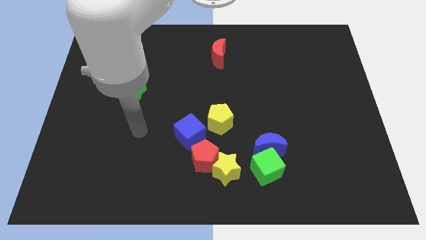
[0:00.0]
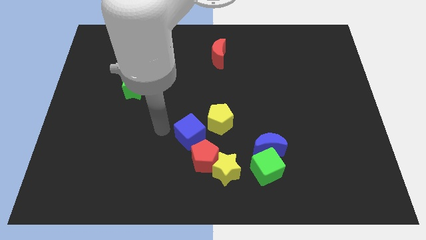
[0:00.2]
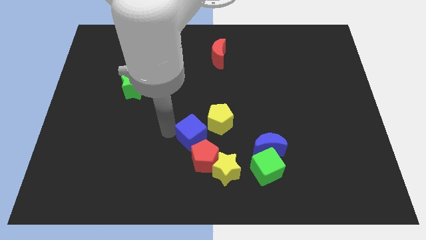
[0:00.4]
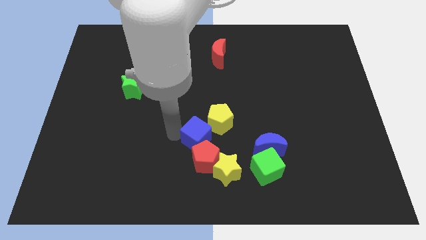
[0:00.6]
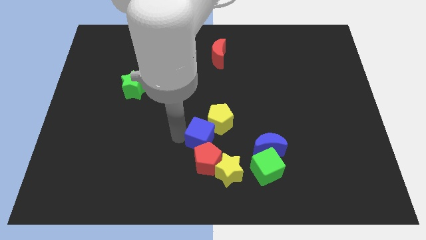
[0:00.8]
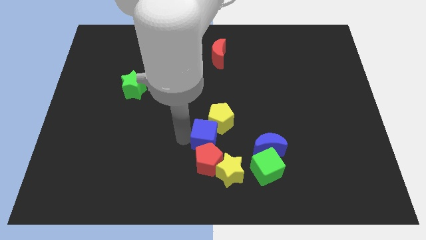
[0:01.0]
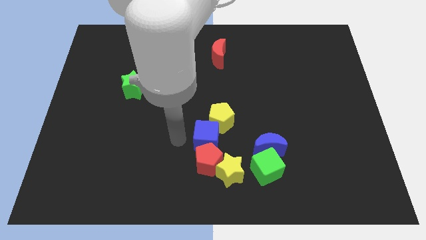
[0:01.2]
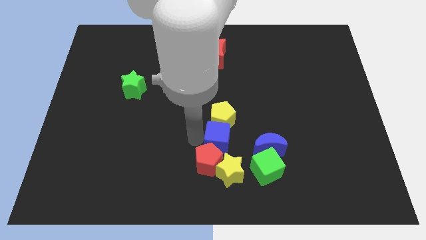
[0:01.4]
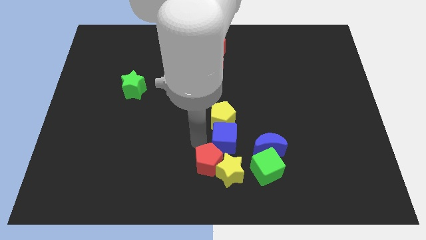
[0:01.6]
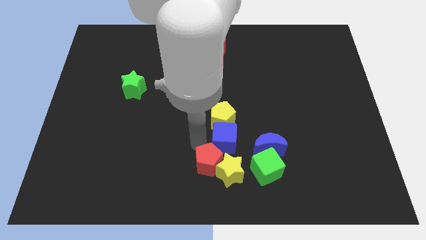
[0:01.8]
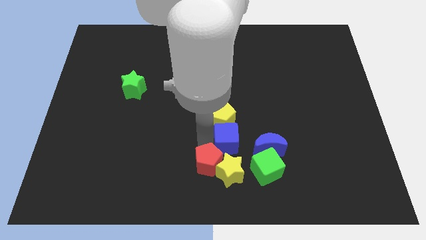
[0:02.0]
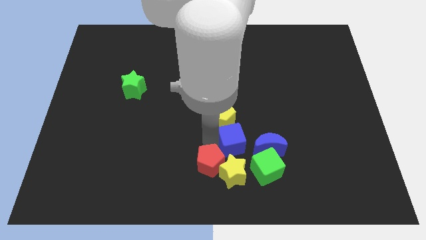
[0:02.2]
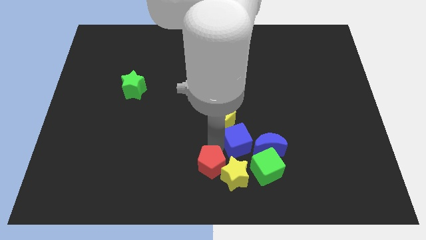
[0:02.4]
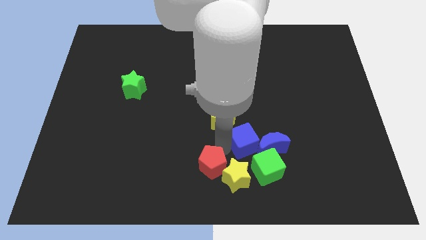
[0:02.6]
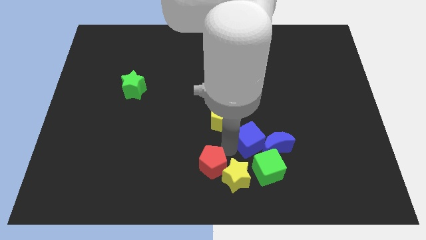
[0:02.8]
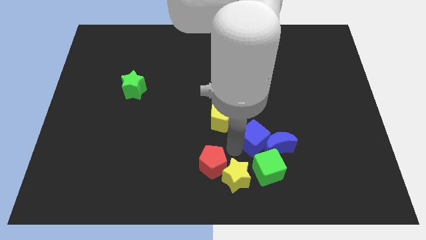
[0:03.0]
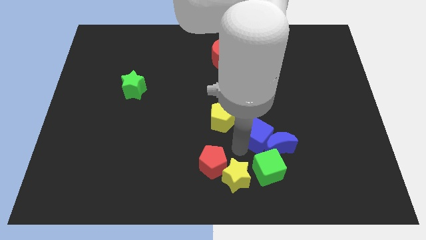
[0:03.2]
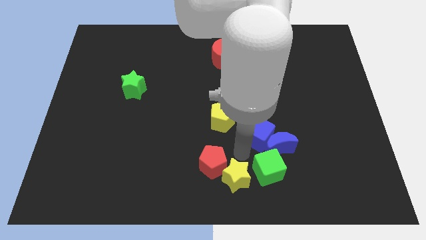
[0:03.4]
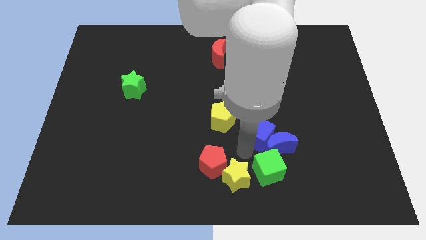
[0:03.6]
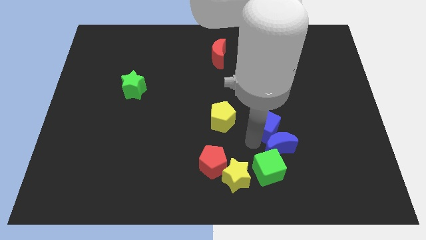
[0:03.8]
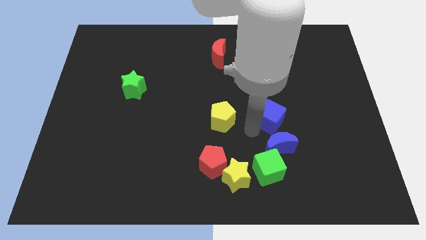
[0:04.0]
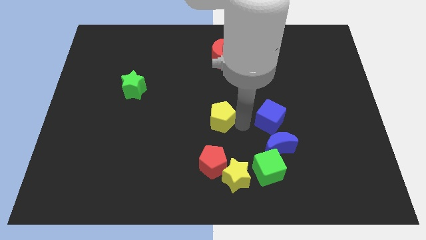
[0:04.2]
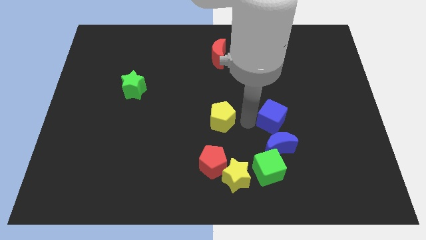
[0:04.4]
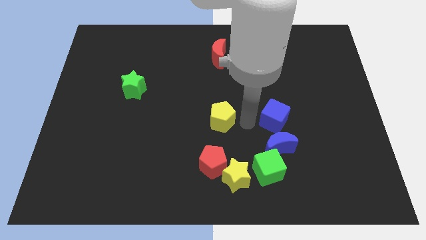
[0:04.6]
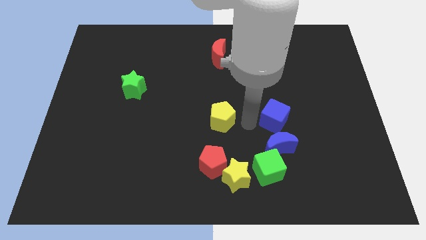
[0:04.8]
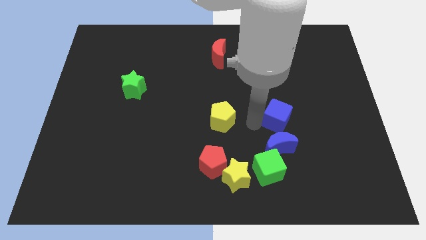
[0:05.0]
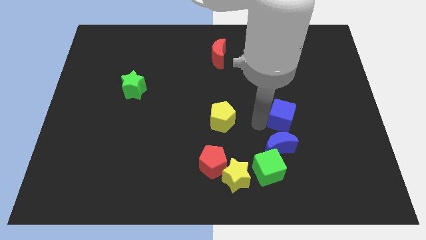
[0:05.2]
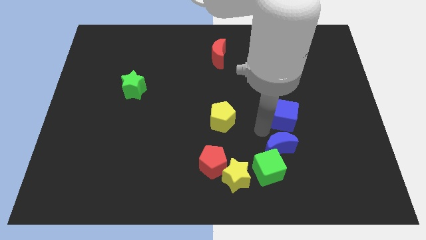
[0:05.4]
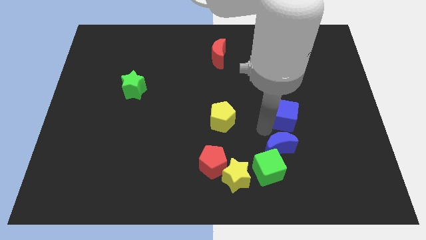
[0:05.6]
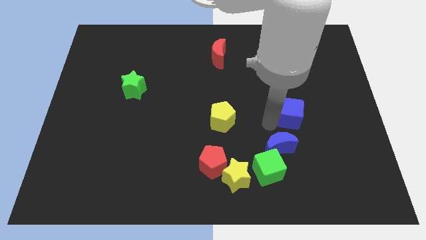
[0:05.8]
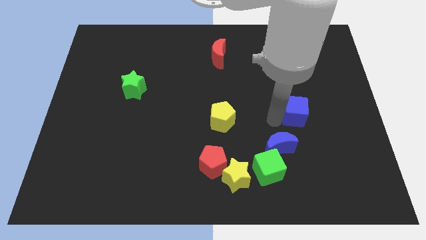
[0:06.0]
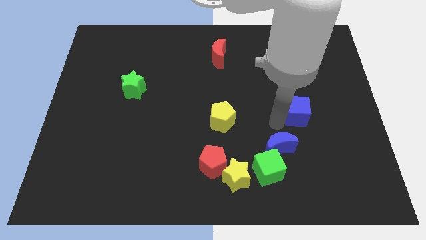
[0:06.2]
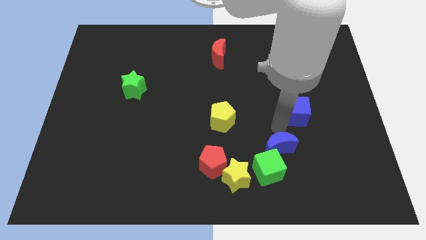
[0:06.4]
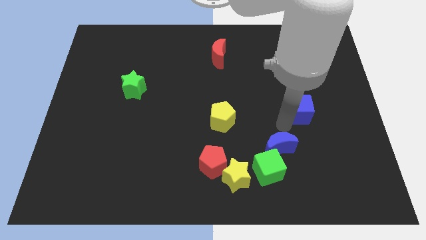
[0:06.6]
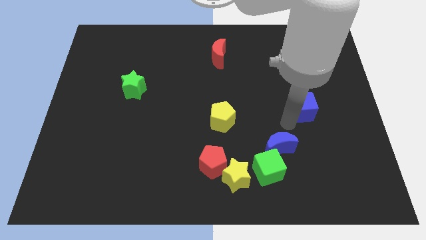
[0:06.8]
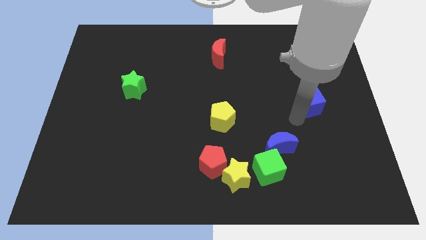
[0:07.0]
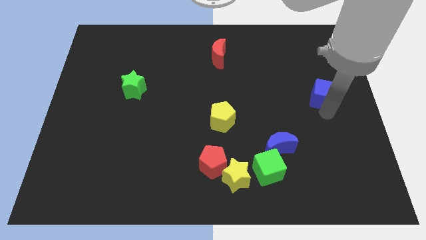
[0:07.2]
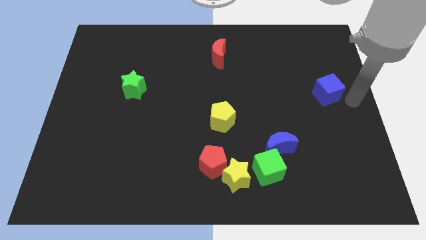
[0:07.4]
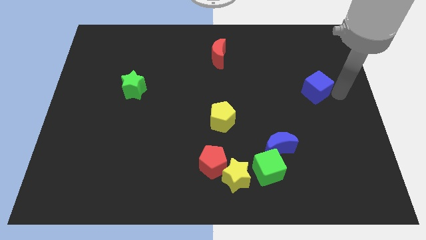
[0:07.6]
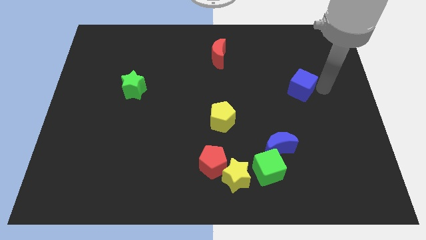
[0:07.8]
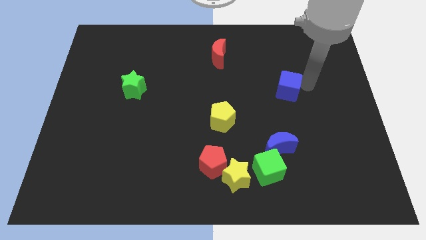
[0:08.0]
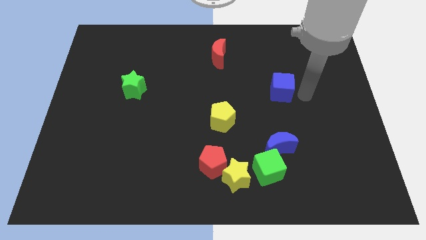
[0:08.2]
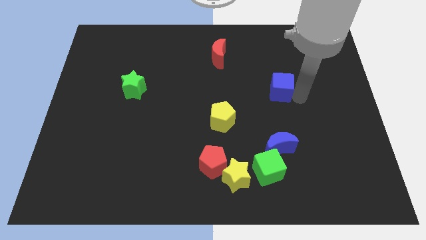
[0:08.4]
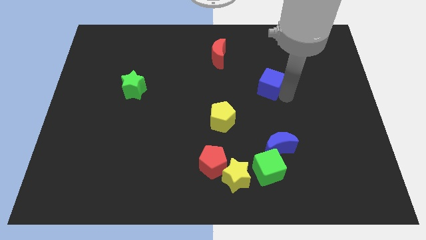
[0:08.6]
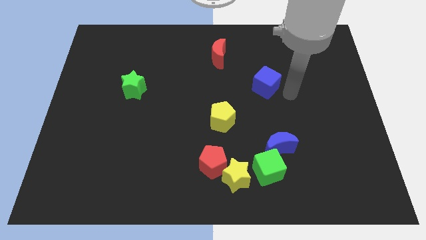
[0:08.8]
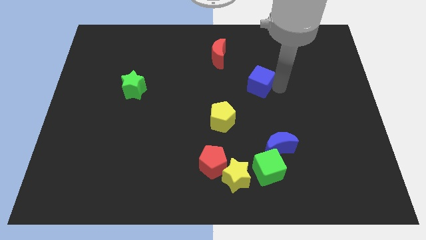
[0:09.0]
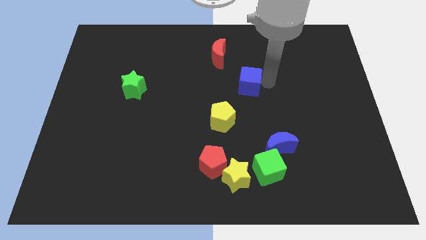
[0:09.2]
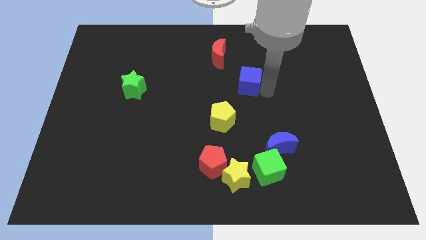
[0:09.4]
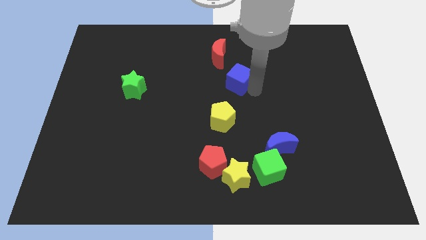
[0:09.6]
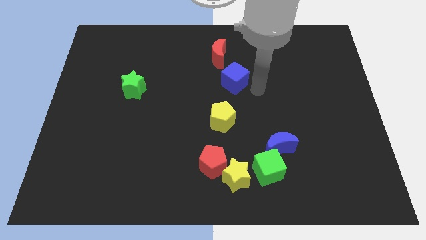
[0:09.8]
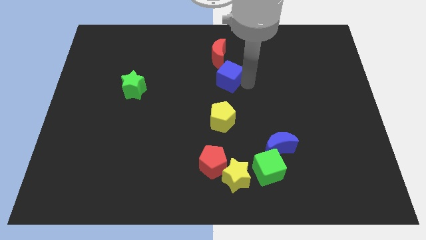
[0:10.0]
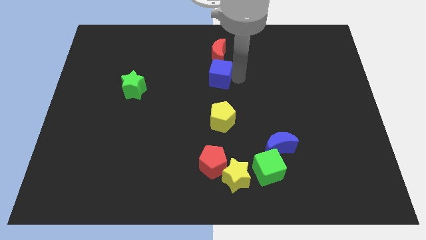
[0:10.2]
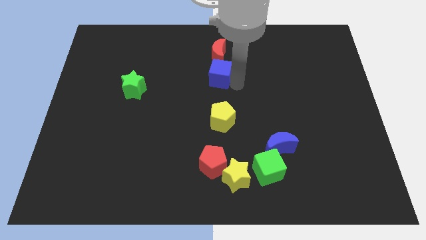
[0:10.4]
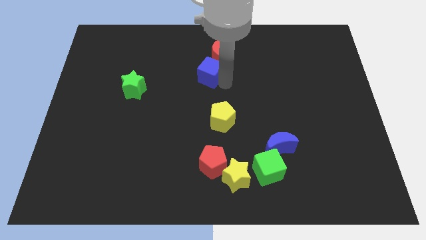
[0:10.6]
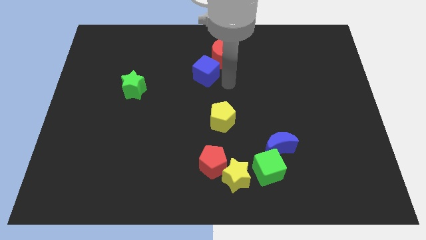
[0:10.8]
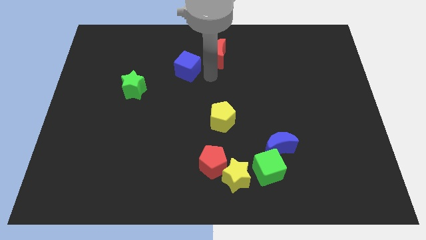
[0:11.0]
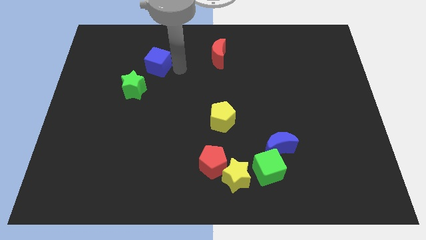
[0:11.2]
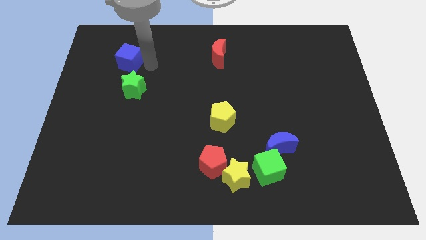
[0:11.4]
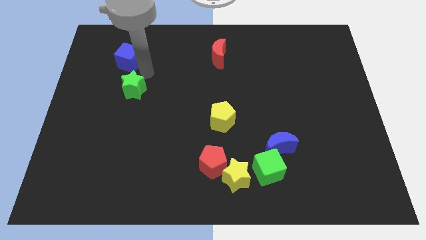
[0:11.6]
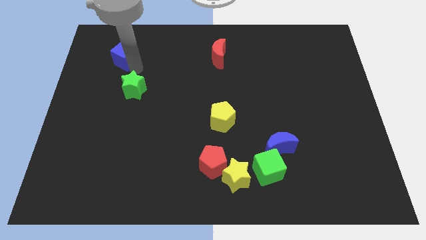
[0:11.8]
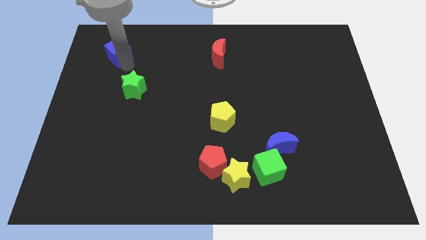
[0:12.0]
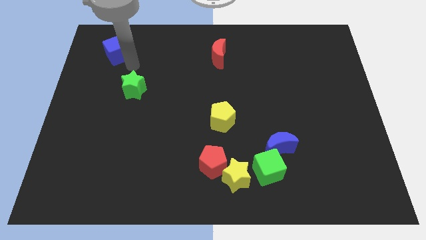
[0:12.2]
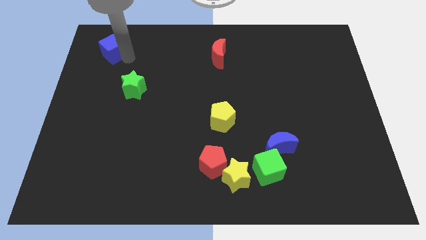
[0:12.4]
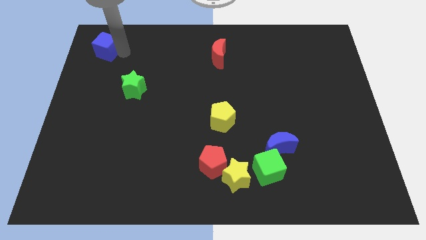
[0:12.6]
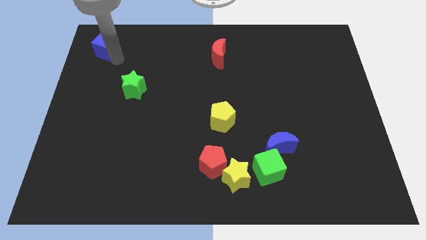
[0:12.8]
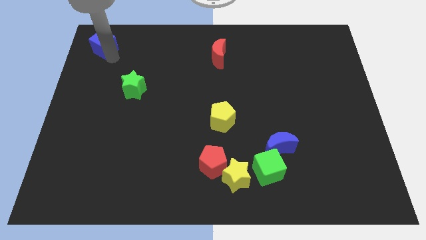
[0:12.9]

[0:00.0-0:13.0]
put the blue cube to the upper left corner
